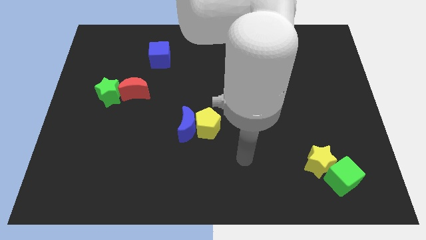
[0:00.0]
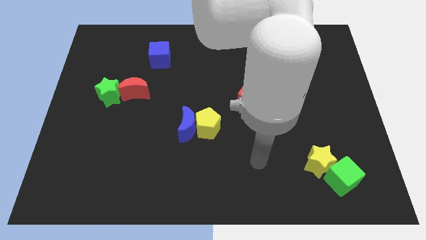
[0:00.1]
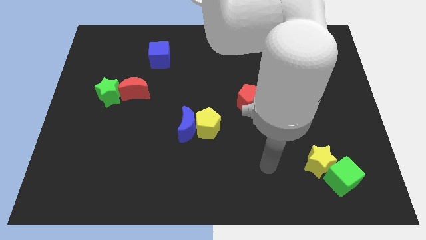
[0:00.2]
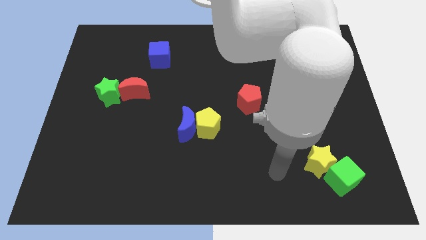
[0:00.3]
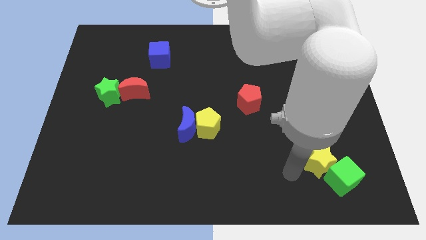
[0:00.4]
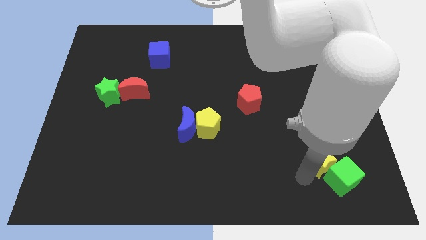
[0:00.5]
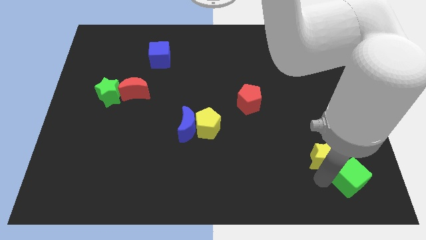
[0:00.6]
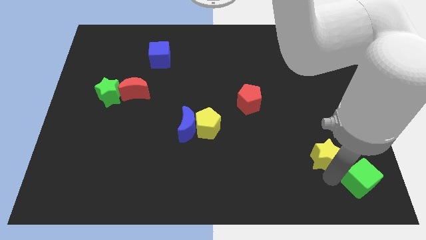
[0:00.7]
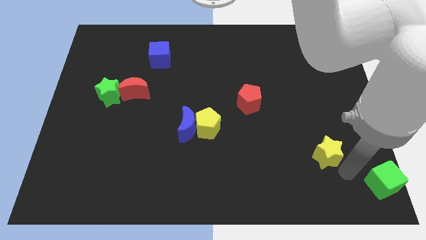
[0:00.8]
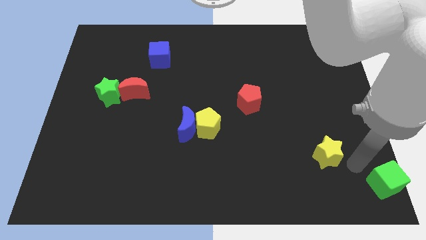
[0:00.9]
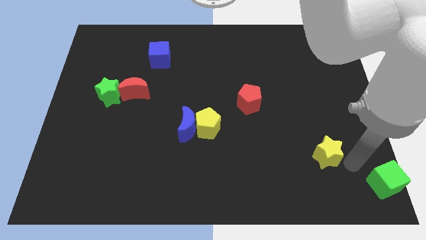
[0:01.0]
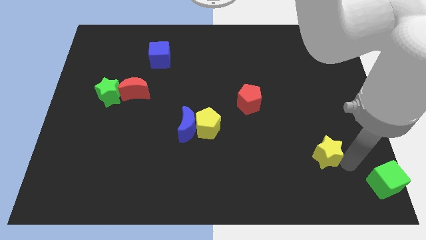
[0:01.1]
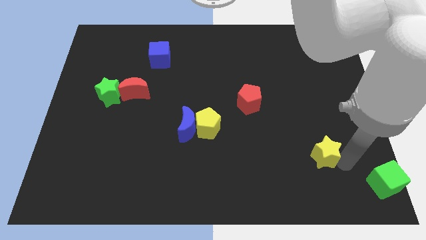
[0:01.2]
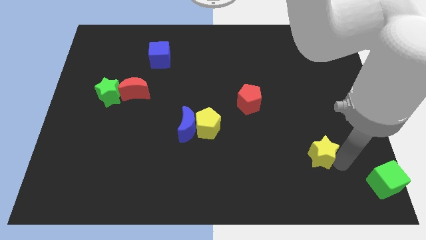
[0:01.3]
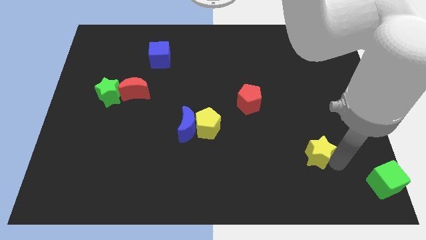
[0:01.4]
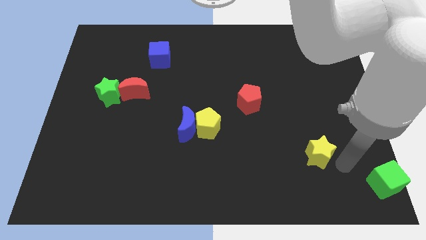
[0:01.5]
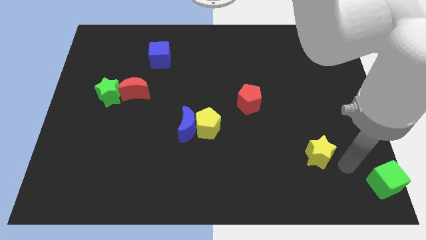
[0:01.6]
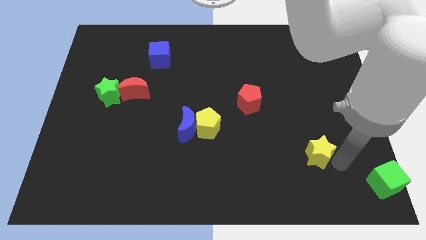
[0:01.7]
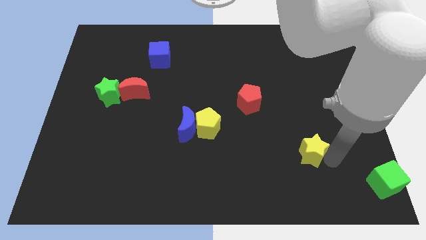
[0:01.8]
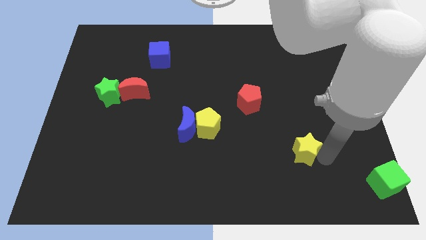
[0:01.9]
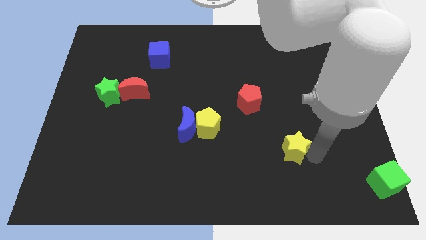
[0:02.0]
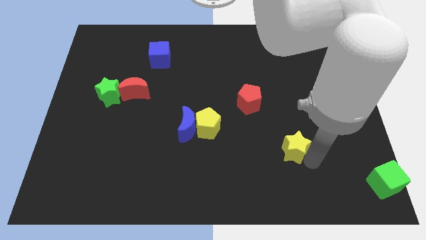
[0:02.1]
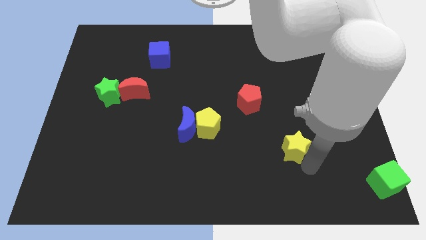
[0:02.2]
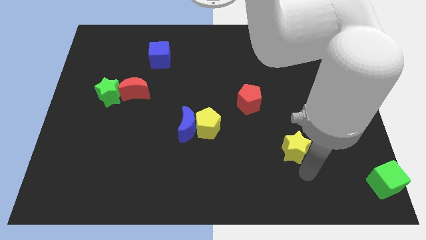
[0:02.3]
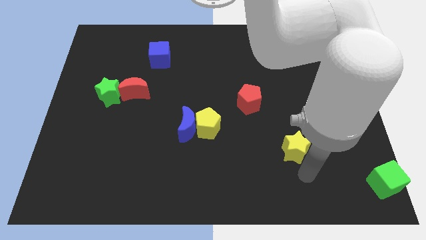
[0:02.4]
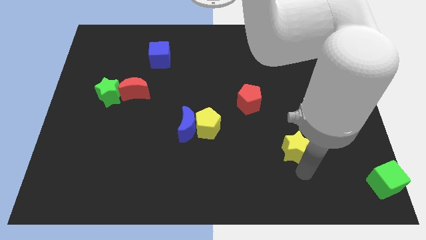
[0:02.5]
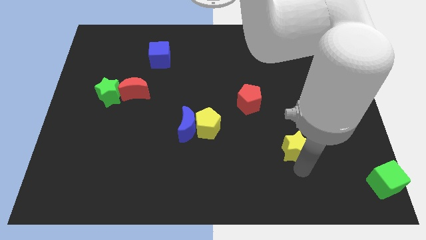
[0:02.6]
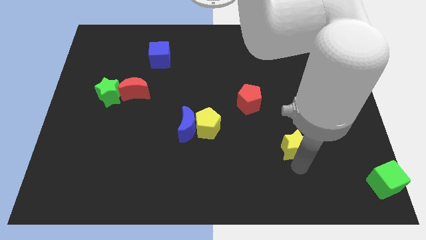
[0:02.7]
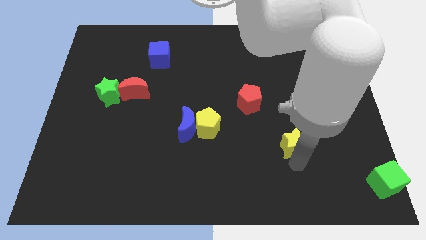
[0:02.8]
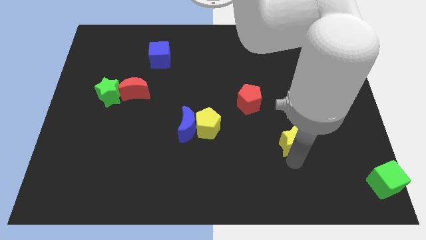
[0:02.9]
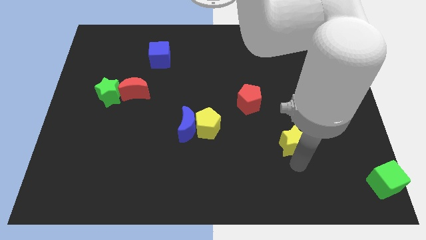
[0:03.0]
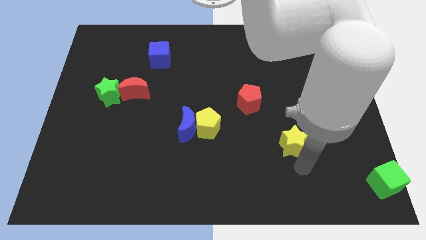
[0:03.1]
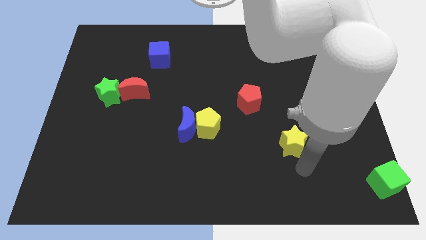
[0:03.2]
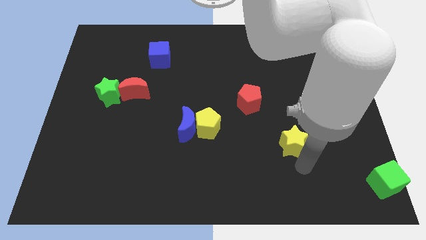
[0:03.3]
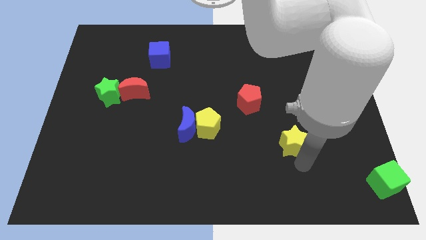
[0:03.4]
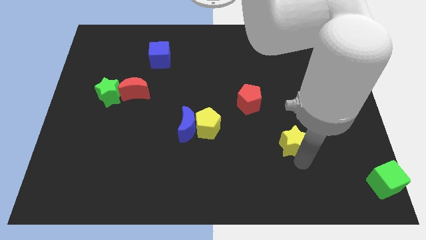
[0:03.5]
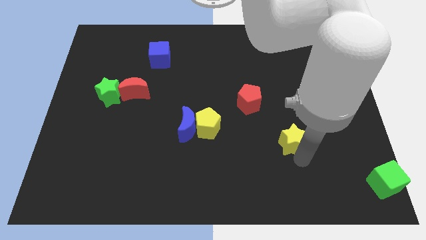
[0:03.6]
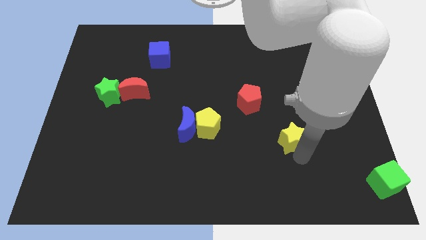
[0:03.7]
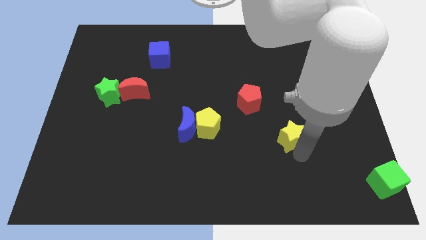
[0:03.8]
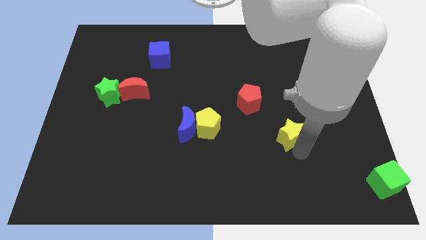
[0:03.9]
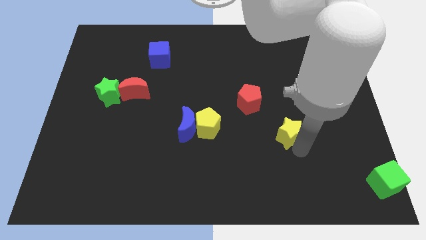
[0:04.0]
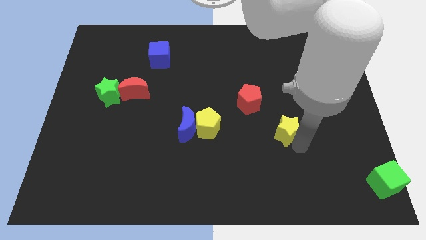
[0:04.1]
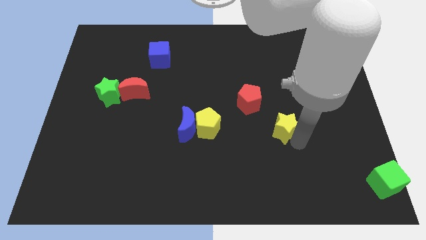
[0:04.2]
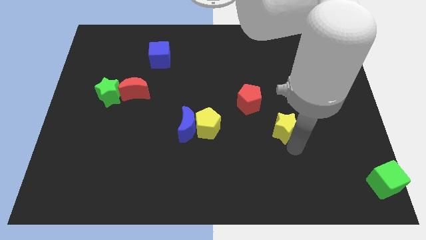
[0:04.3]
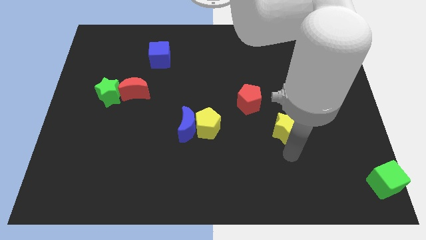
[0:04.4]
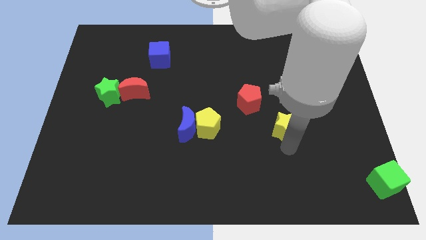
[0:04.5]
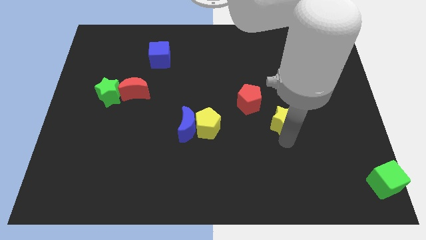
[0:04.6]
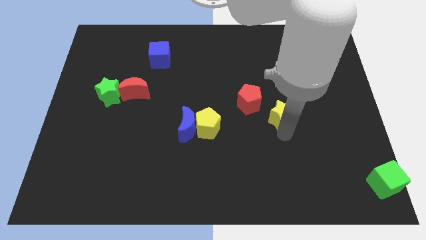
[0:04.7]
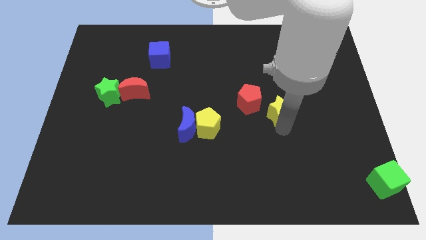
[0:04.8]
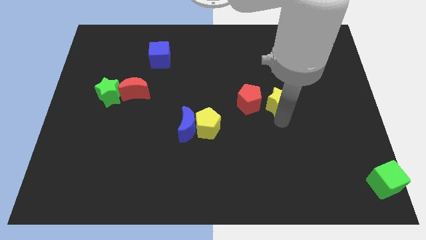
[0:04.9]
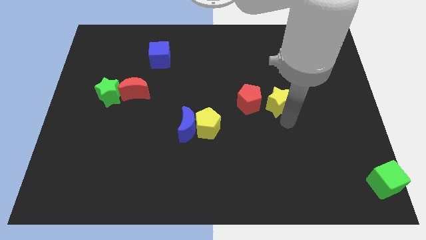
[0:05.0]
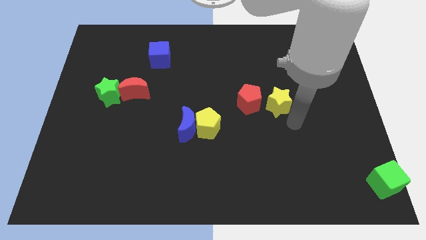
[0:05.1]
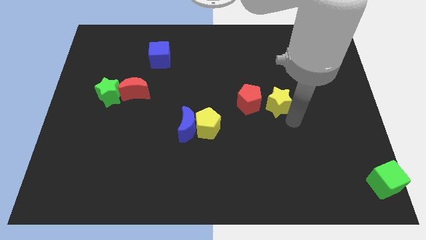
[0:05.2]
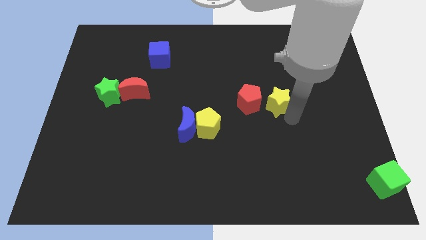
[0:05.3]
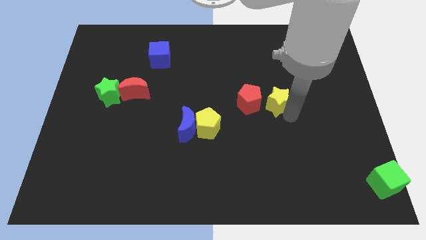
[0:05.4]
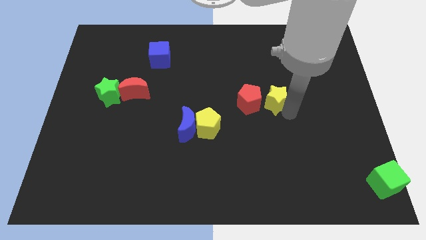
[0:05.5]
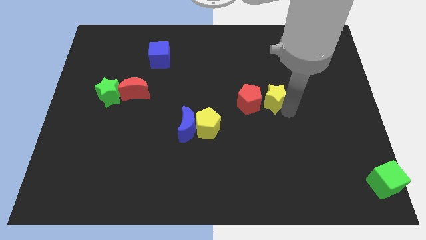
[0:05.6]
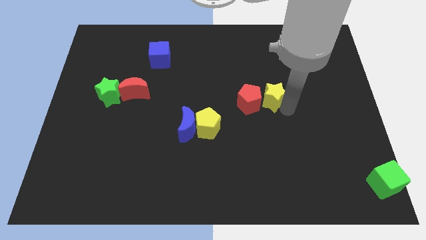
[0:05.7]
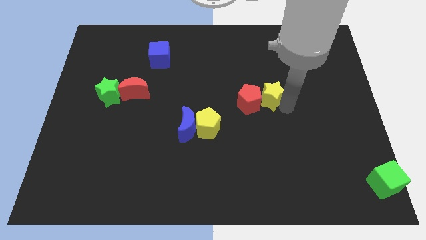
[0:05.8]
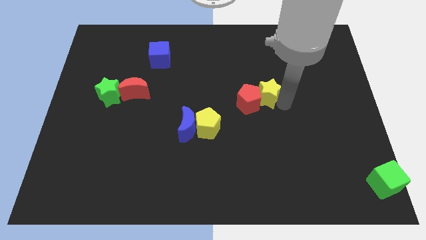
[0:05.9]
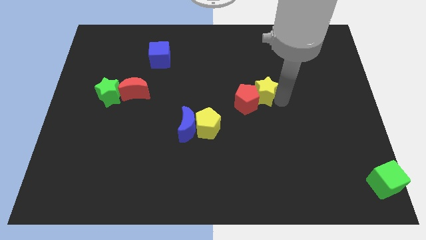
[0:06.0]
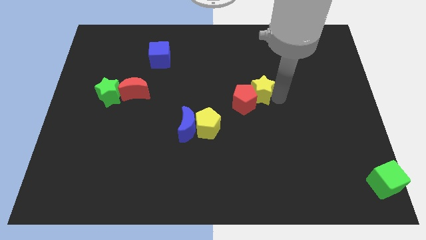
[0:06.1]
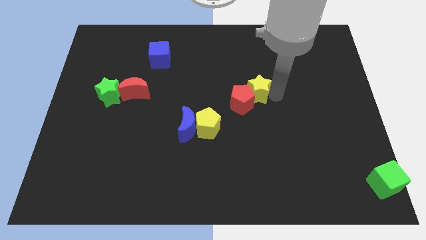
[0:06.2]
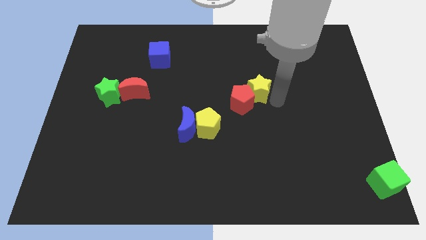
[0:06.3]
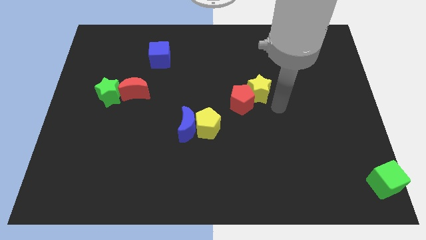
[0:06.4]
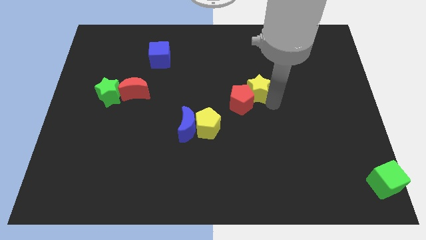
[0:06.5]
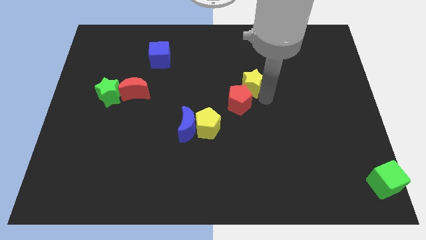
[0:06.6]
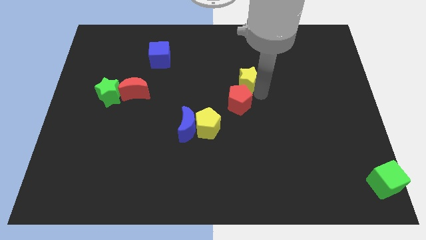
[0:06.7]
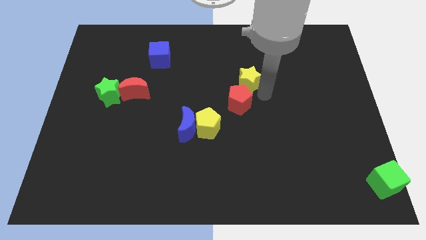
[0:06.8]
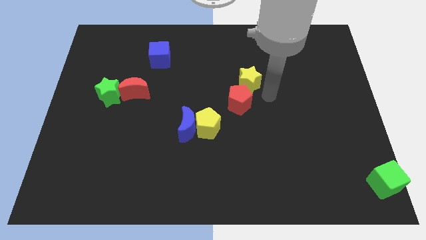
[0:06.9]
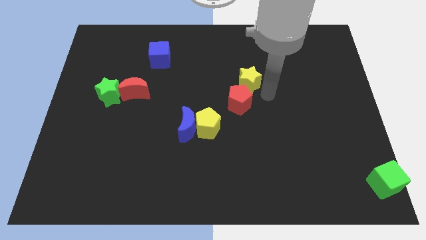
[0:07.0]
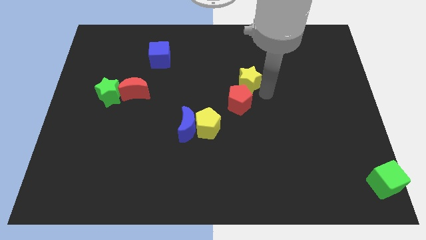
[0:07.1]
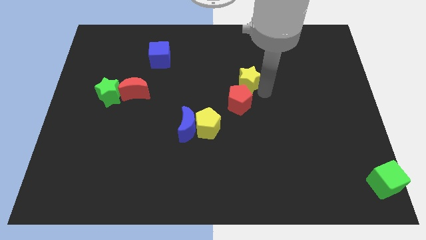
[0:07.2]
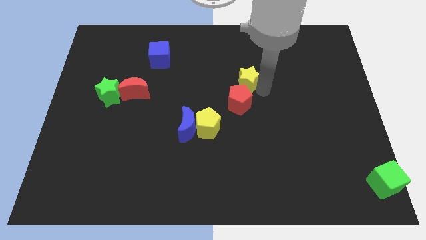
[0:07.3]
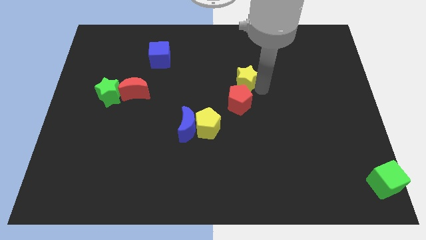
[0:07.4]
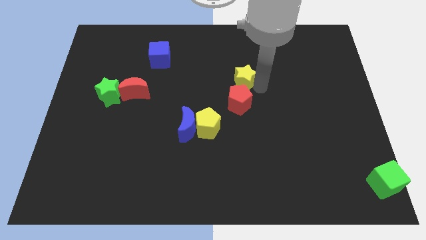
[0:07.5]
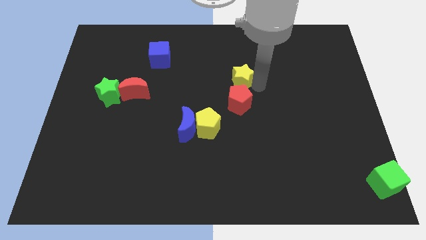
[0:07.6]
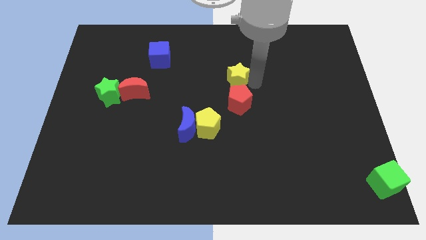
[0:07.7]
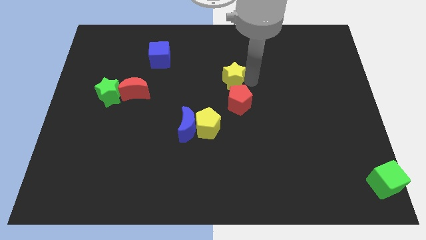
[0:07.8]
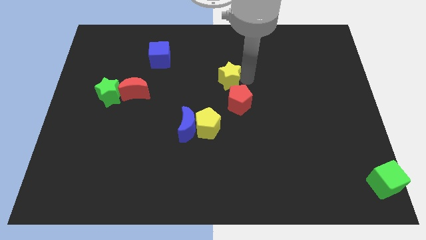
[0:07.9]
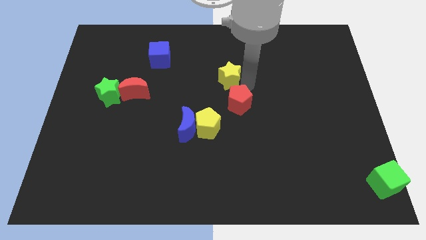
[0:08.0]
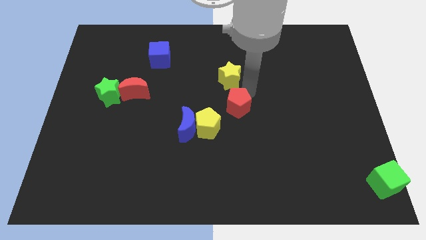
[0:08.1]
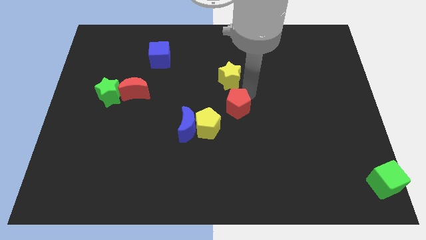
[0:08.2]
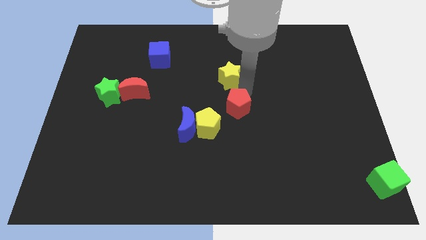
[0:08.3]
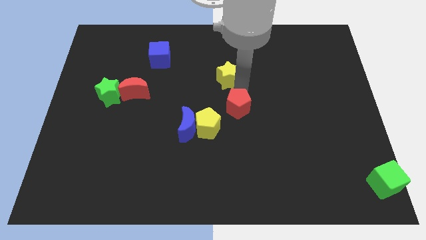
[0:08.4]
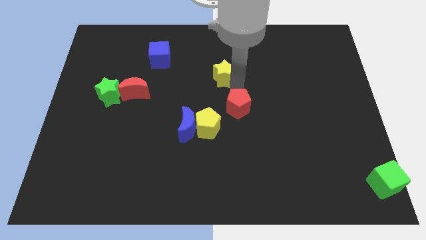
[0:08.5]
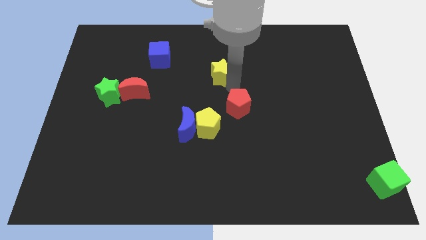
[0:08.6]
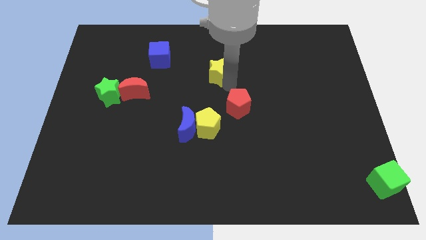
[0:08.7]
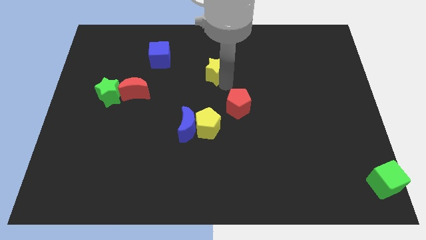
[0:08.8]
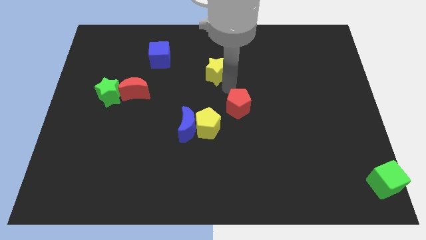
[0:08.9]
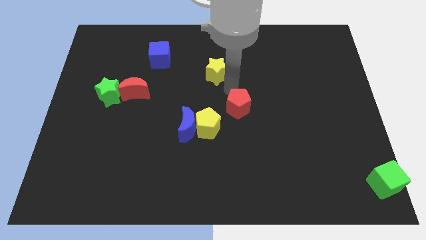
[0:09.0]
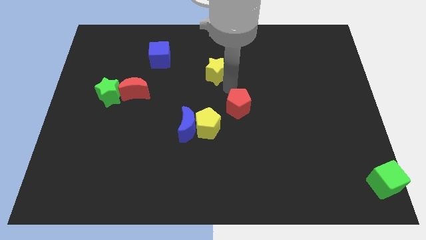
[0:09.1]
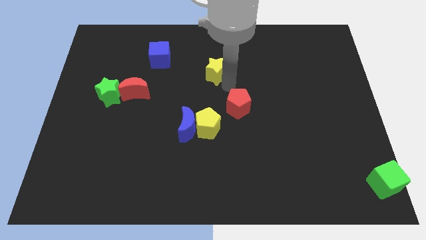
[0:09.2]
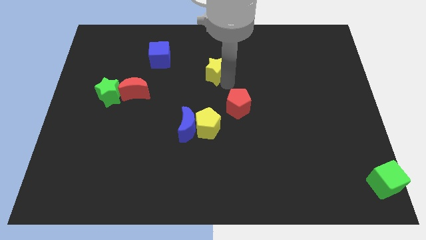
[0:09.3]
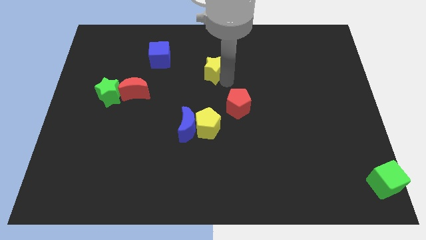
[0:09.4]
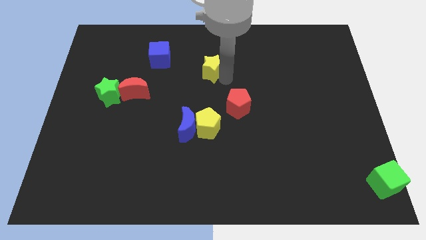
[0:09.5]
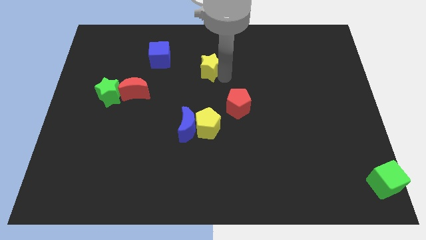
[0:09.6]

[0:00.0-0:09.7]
put the yellow star just right of the blue cube
